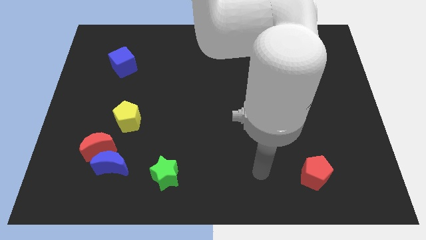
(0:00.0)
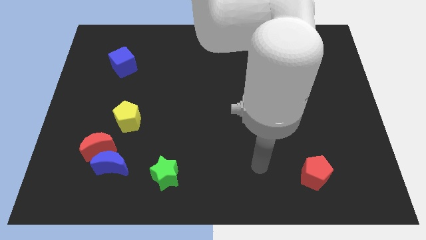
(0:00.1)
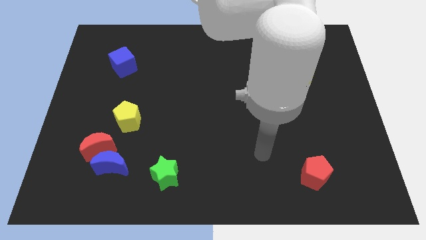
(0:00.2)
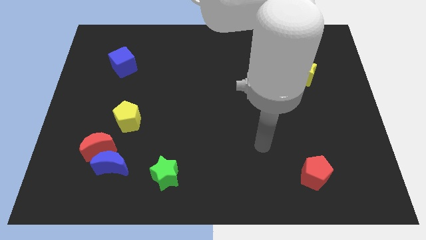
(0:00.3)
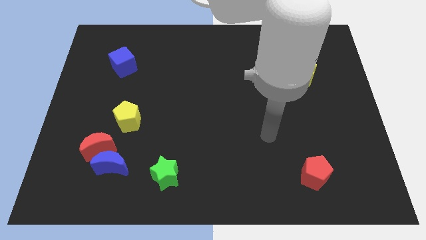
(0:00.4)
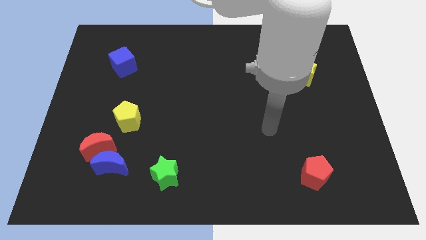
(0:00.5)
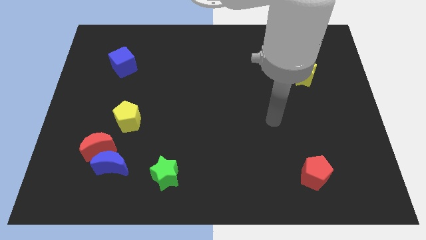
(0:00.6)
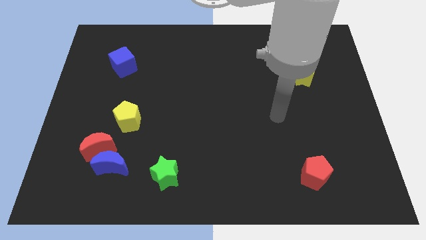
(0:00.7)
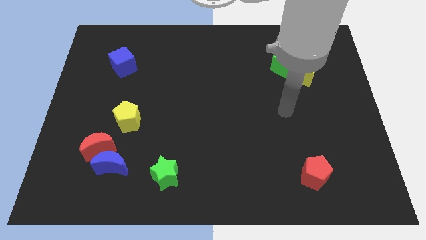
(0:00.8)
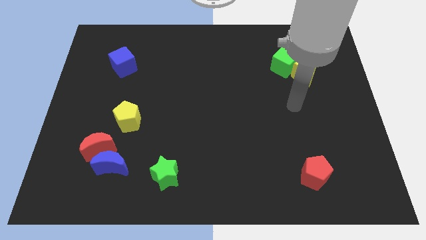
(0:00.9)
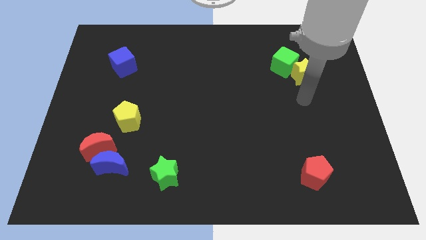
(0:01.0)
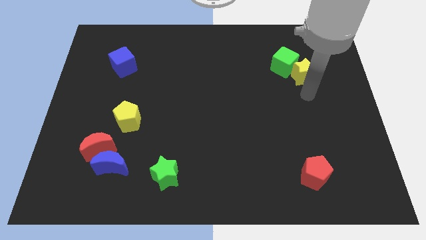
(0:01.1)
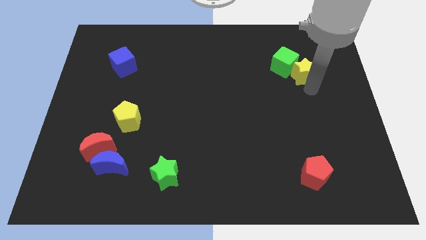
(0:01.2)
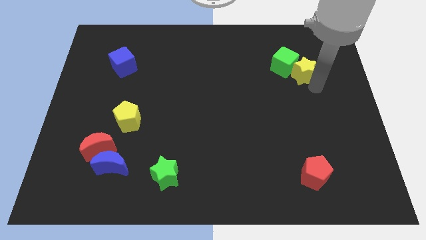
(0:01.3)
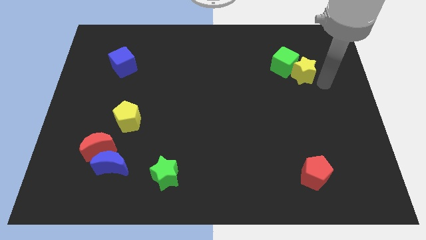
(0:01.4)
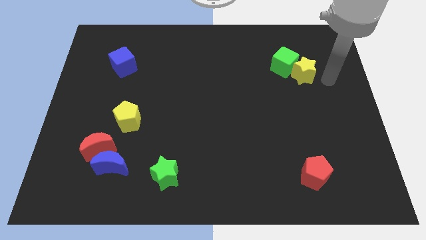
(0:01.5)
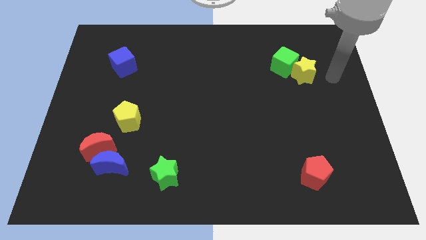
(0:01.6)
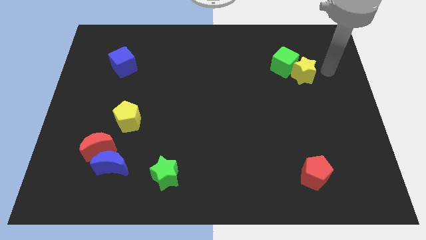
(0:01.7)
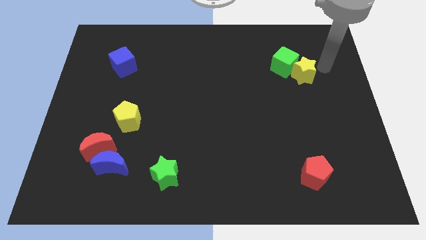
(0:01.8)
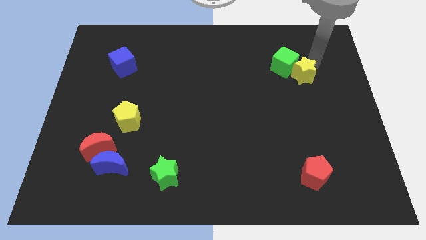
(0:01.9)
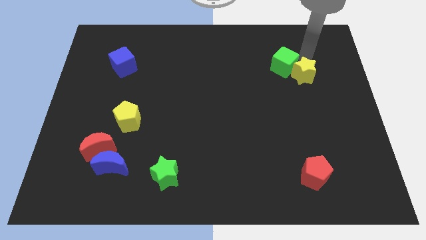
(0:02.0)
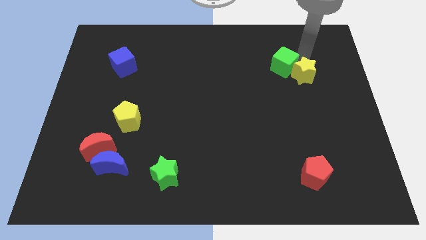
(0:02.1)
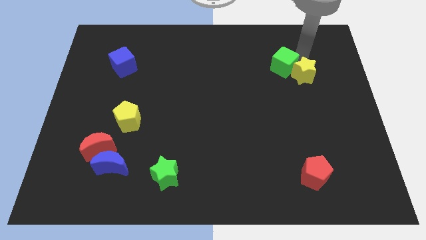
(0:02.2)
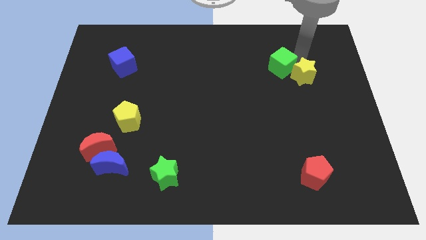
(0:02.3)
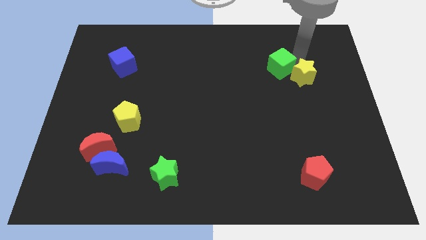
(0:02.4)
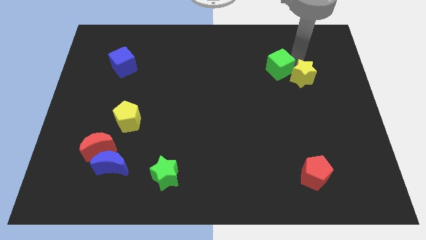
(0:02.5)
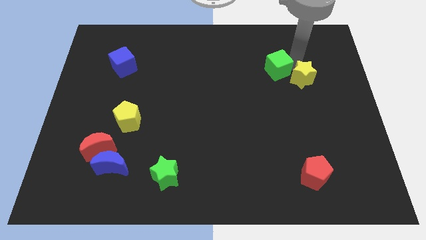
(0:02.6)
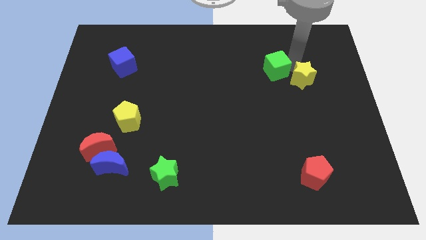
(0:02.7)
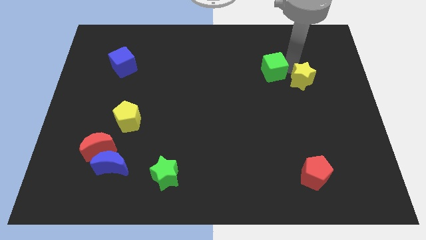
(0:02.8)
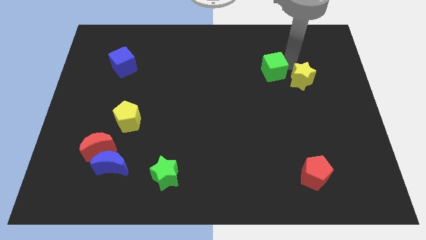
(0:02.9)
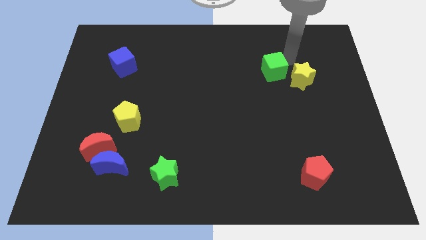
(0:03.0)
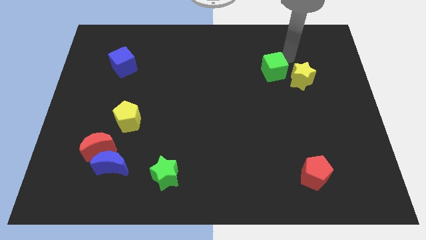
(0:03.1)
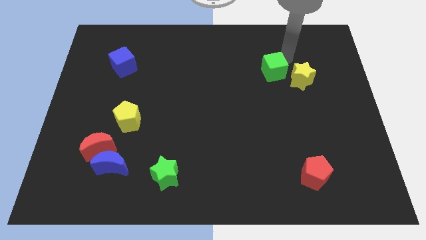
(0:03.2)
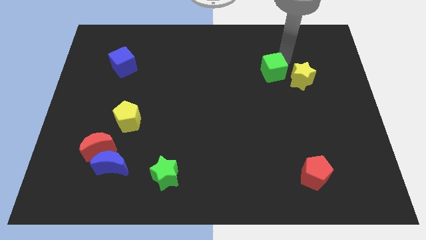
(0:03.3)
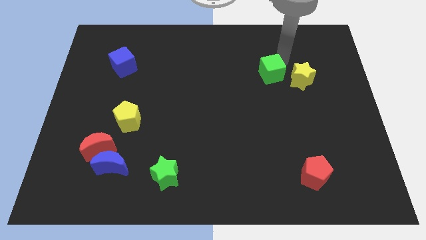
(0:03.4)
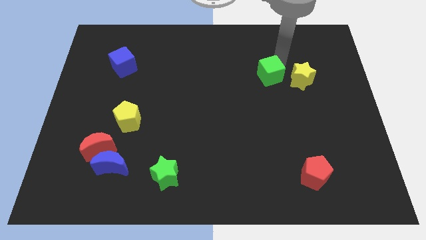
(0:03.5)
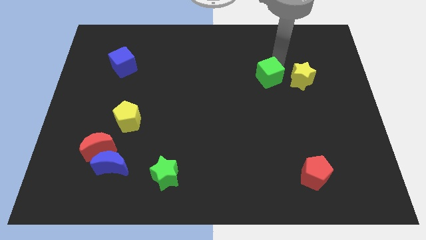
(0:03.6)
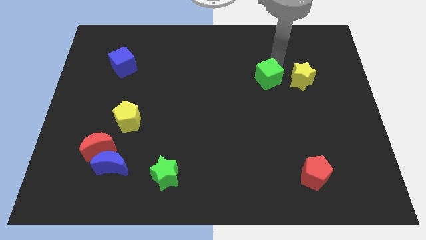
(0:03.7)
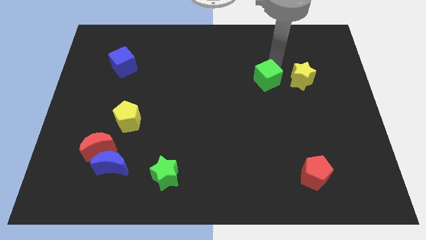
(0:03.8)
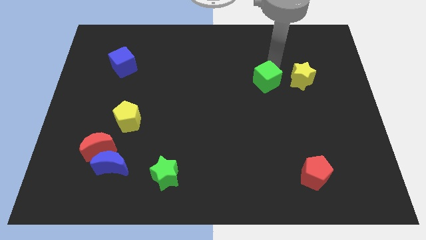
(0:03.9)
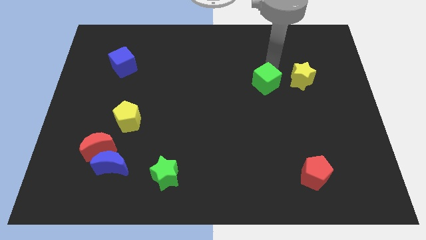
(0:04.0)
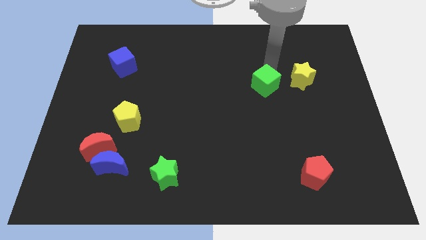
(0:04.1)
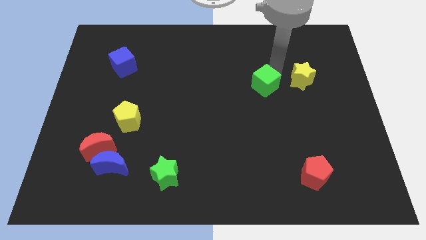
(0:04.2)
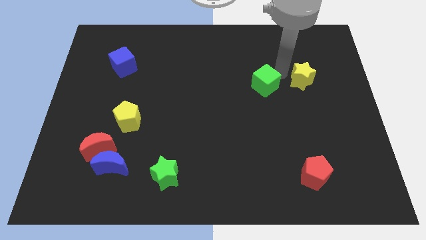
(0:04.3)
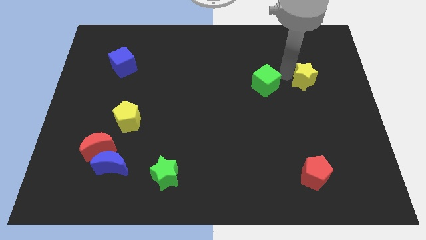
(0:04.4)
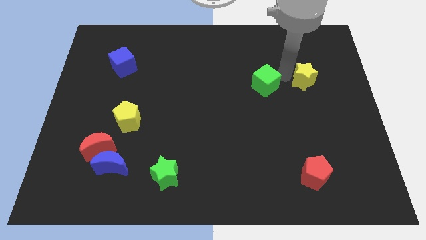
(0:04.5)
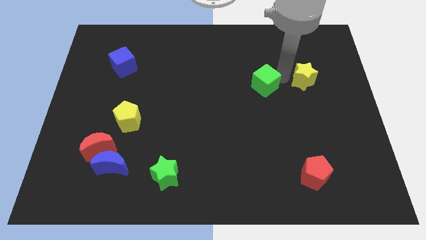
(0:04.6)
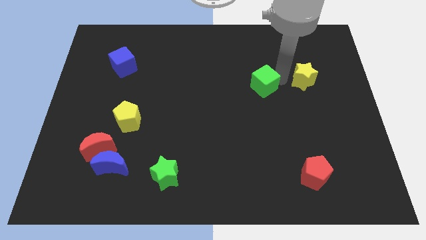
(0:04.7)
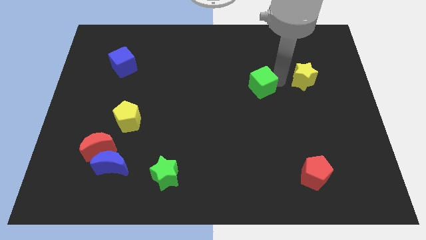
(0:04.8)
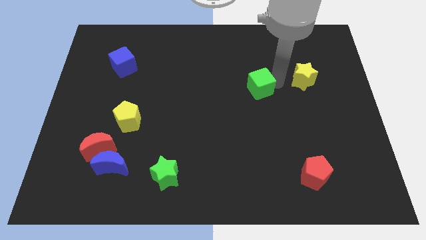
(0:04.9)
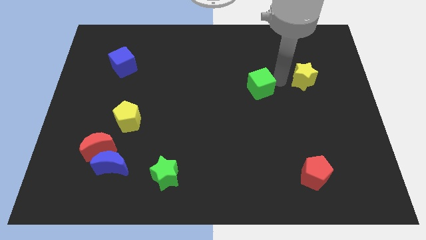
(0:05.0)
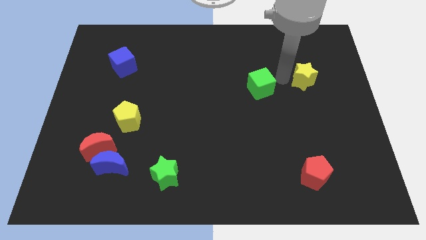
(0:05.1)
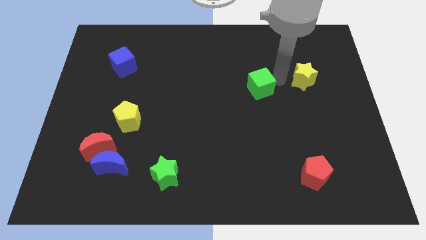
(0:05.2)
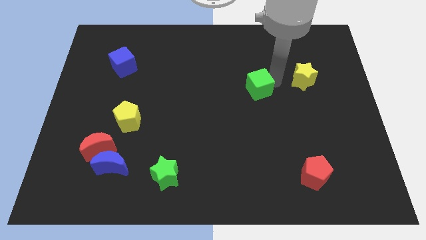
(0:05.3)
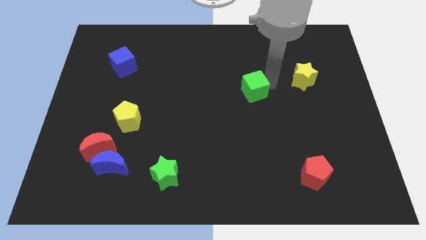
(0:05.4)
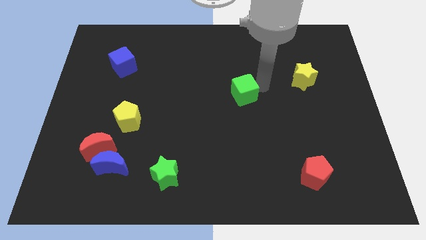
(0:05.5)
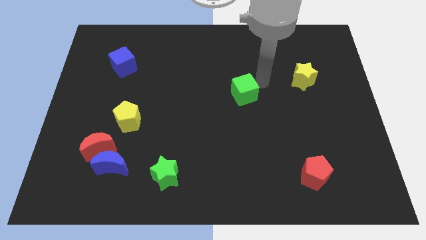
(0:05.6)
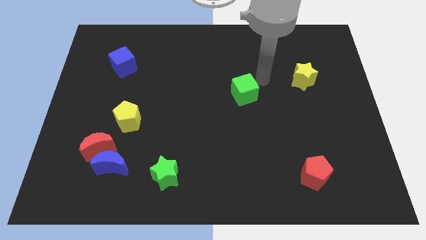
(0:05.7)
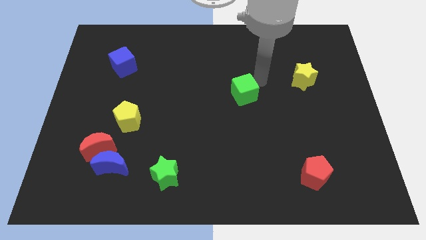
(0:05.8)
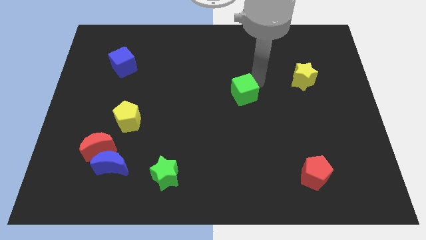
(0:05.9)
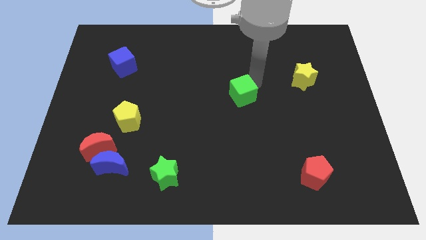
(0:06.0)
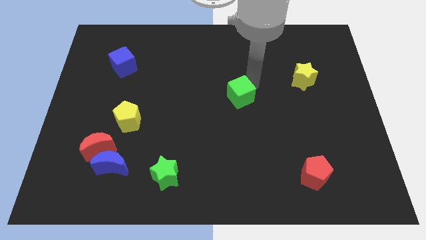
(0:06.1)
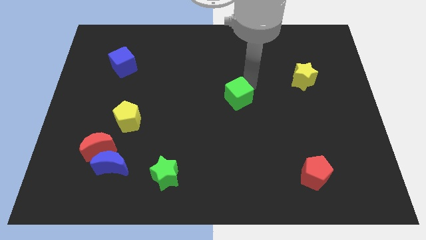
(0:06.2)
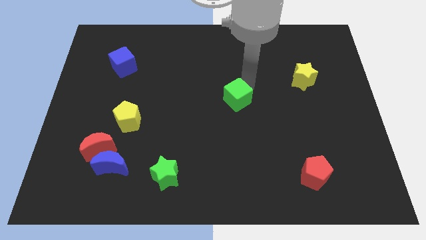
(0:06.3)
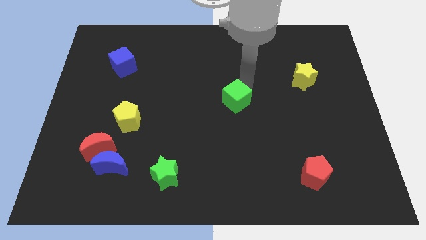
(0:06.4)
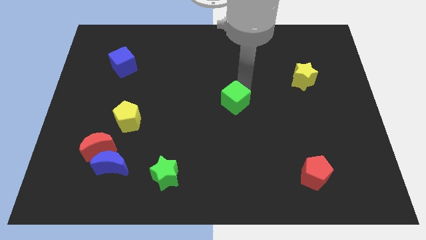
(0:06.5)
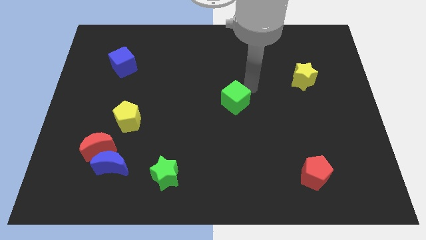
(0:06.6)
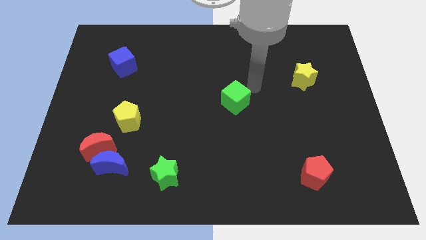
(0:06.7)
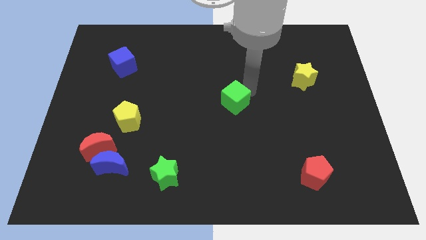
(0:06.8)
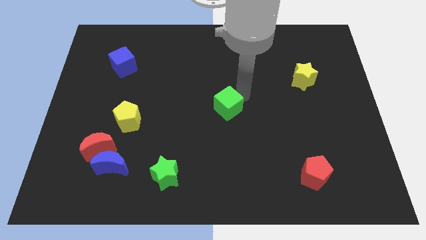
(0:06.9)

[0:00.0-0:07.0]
move the green cube down and then left

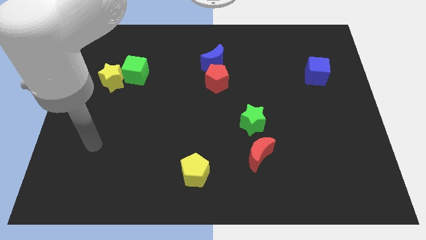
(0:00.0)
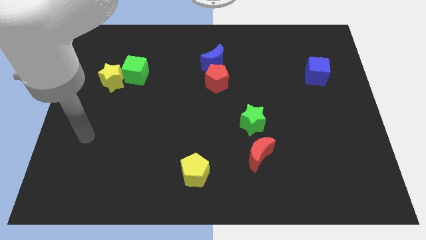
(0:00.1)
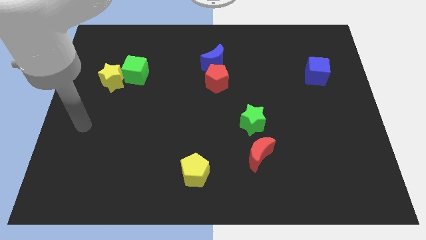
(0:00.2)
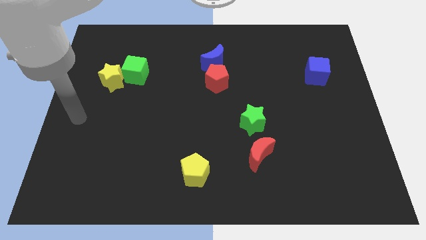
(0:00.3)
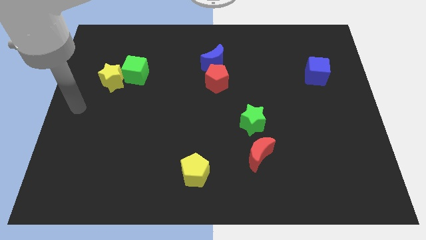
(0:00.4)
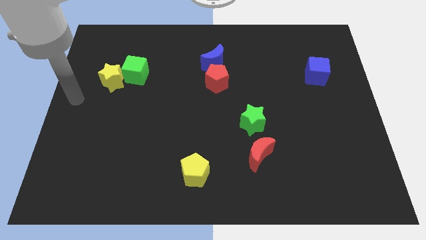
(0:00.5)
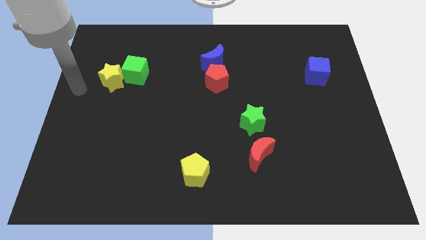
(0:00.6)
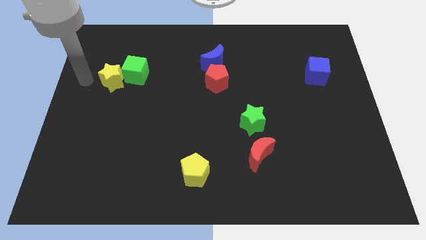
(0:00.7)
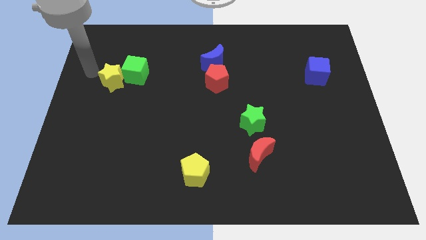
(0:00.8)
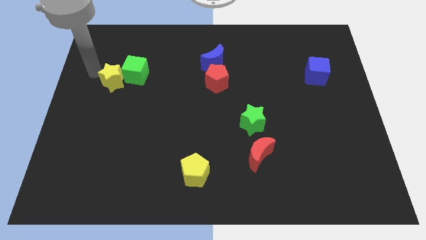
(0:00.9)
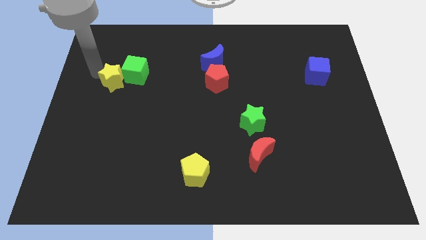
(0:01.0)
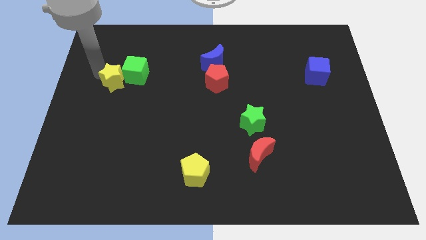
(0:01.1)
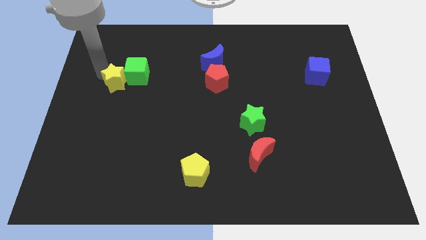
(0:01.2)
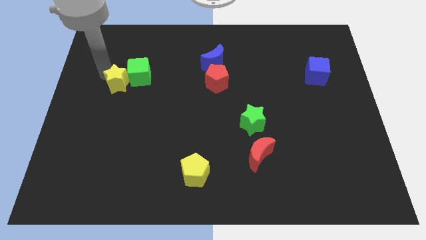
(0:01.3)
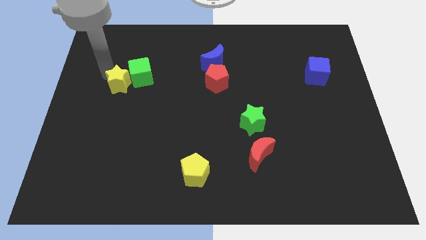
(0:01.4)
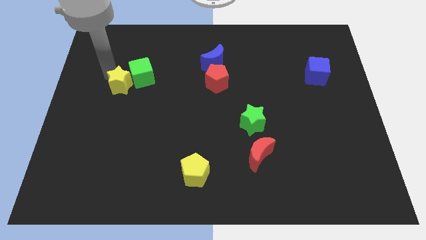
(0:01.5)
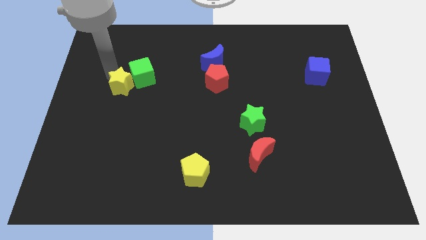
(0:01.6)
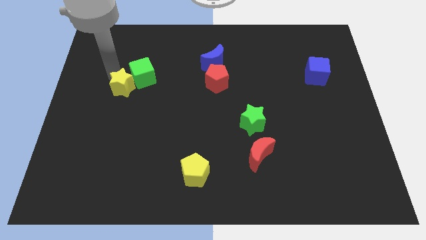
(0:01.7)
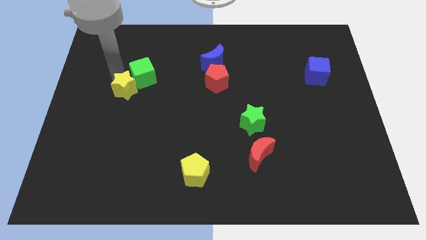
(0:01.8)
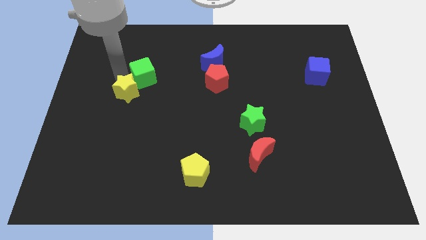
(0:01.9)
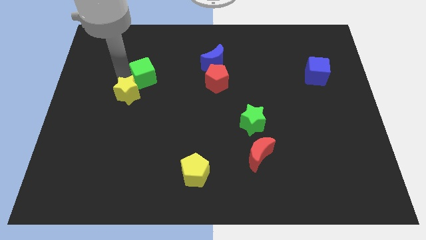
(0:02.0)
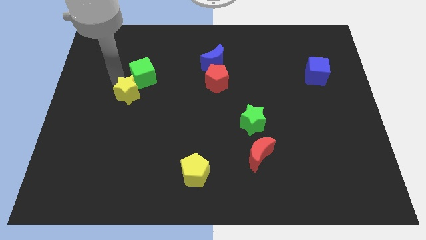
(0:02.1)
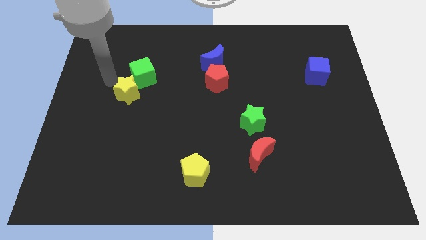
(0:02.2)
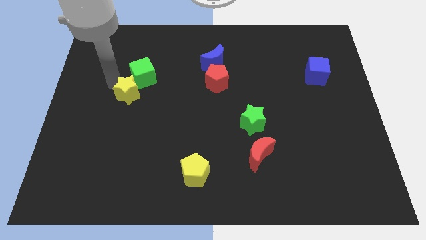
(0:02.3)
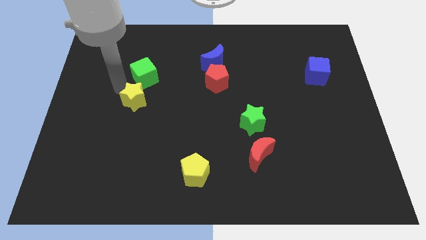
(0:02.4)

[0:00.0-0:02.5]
slightly move the yellow star diagonally downwards and right
